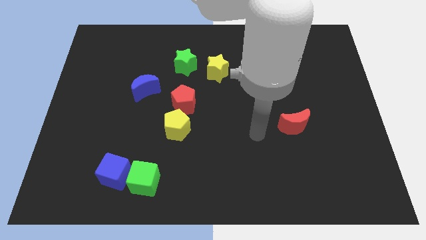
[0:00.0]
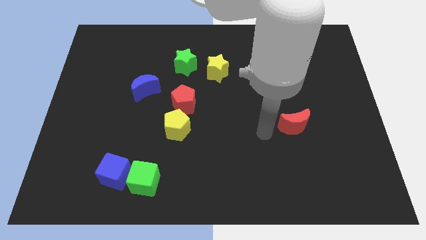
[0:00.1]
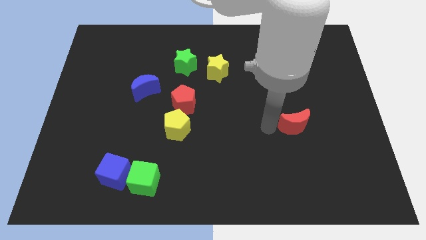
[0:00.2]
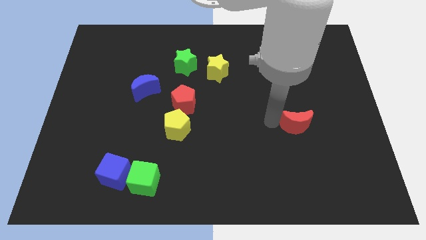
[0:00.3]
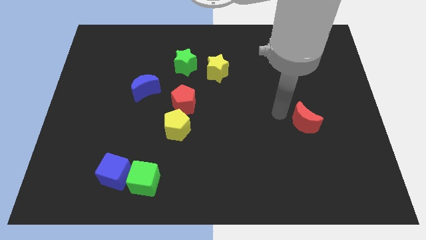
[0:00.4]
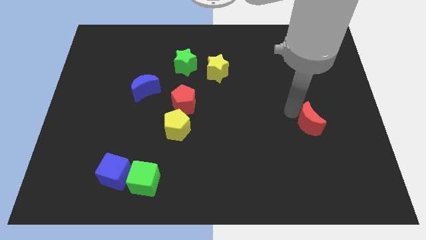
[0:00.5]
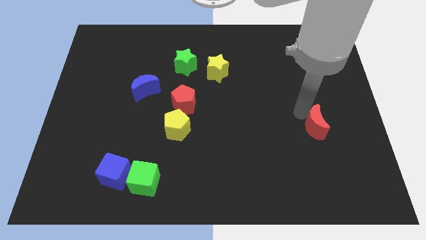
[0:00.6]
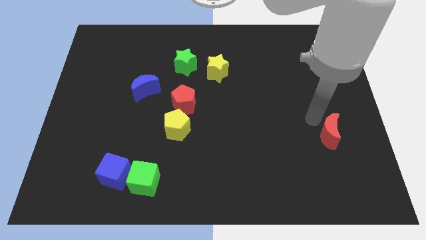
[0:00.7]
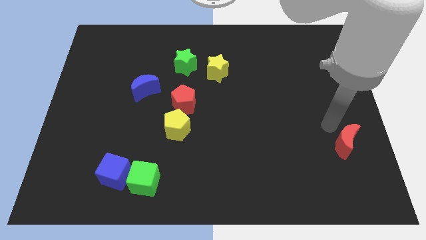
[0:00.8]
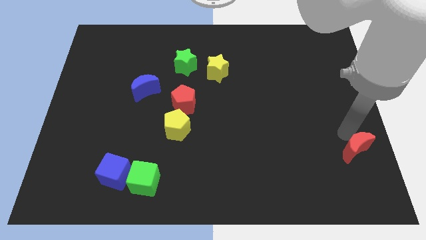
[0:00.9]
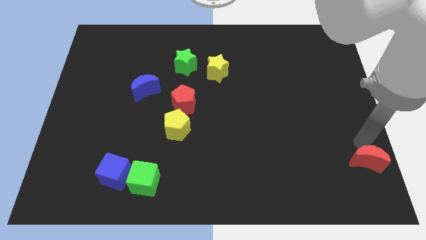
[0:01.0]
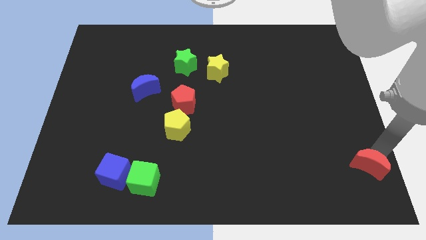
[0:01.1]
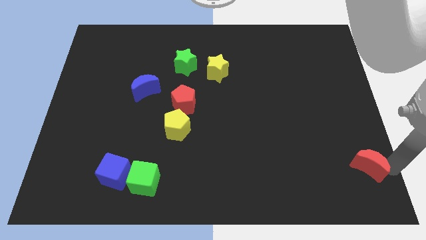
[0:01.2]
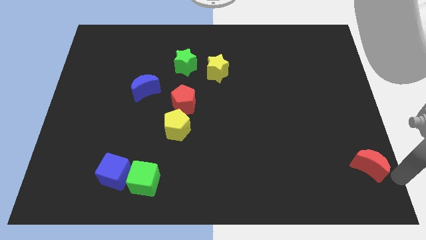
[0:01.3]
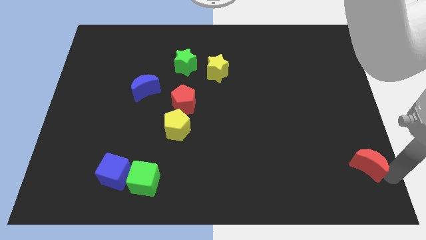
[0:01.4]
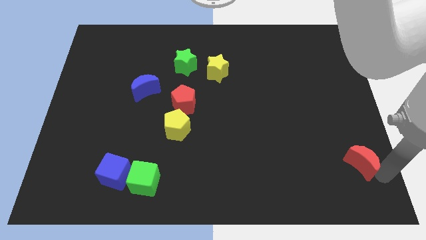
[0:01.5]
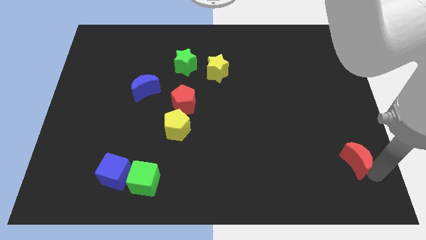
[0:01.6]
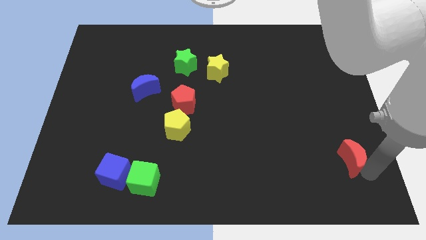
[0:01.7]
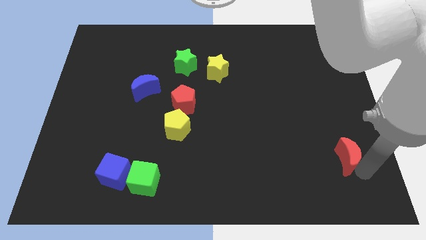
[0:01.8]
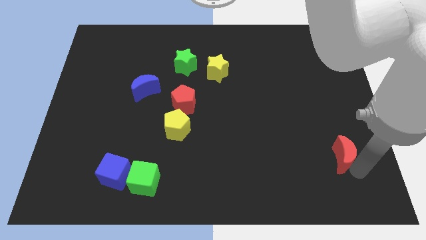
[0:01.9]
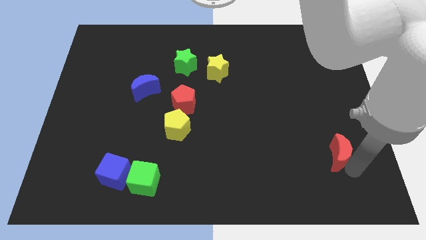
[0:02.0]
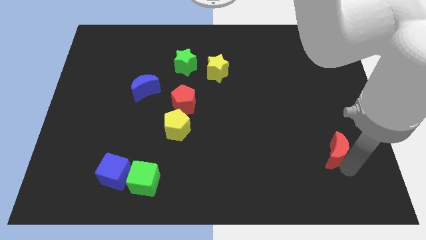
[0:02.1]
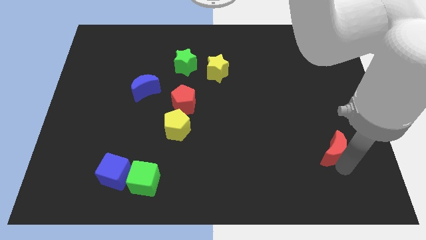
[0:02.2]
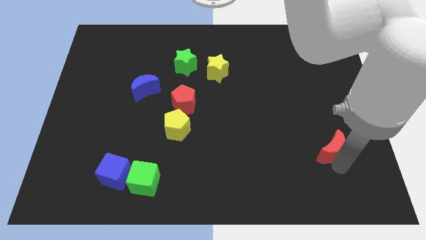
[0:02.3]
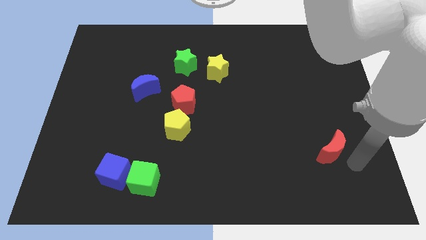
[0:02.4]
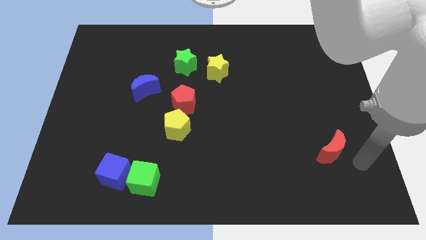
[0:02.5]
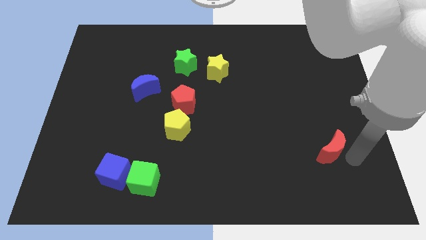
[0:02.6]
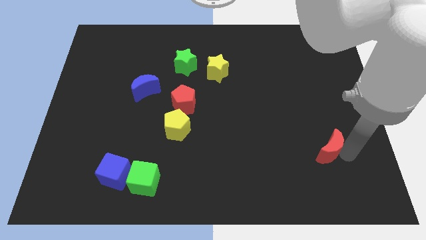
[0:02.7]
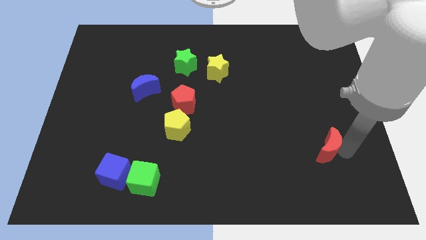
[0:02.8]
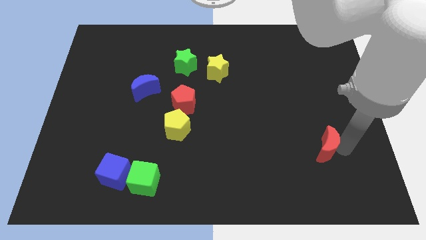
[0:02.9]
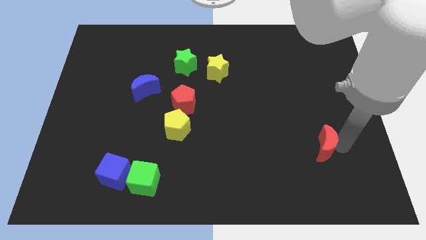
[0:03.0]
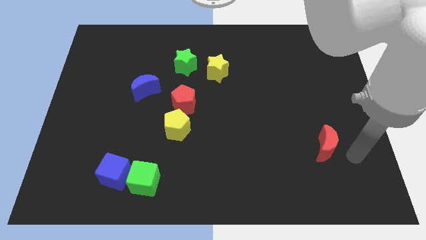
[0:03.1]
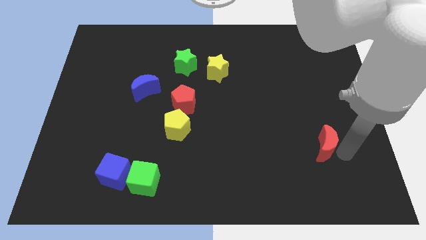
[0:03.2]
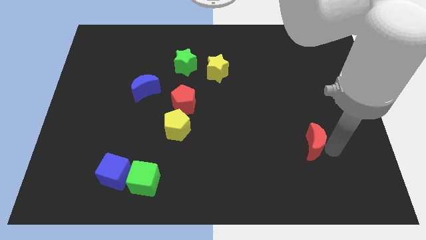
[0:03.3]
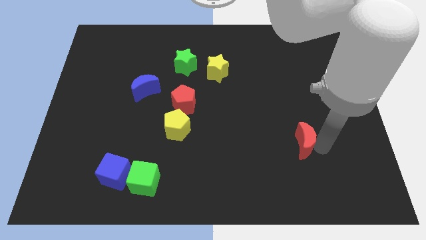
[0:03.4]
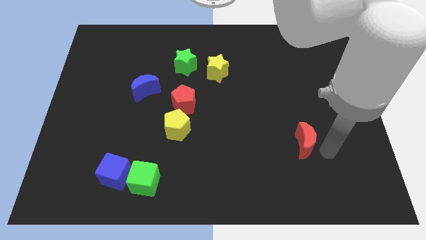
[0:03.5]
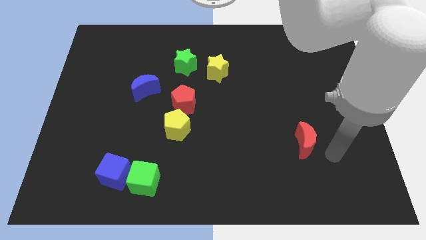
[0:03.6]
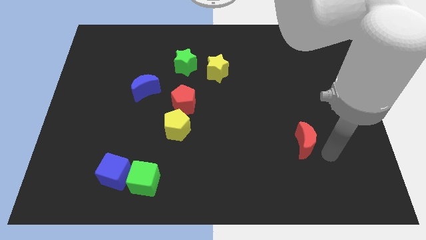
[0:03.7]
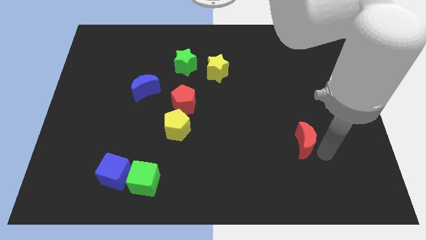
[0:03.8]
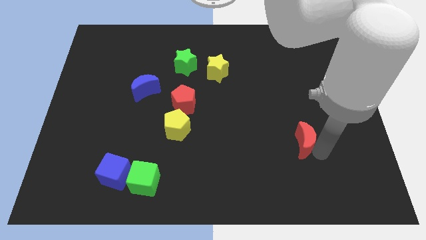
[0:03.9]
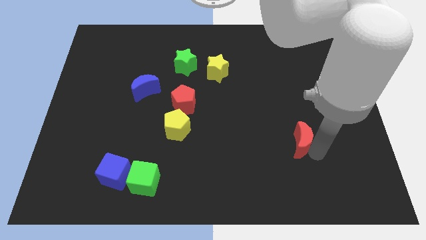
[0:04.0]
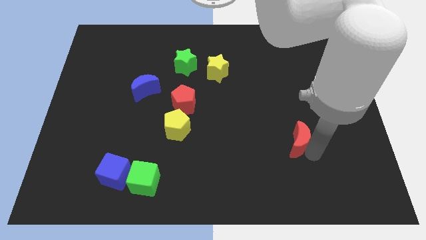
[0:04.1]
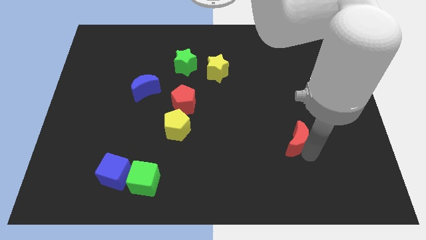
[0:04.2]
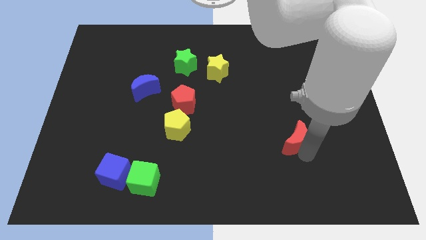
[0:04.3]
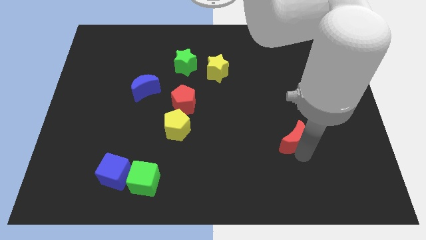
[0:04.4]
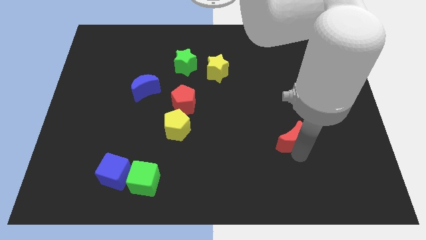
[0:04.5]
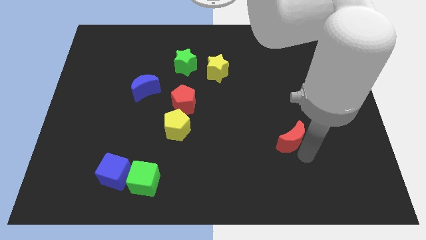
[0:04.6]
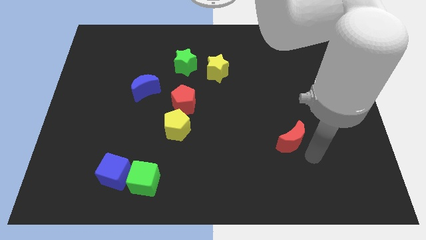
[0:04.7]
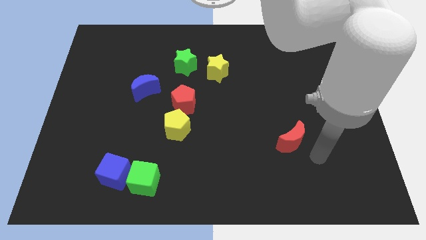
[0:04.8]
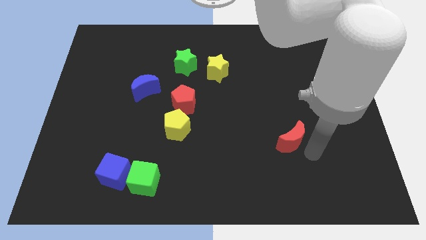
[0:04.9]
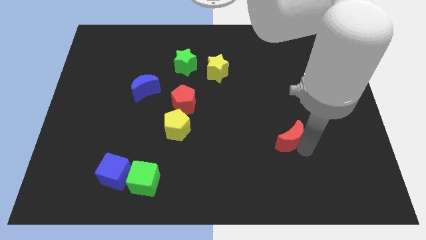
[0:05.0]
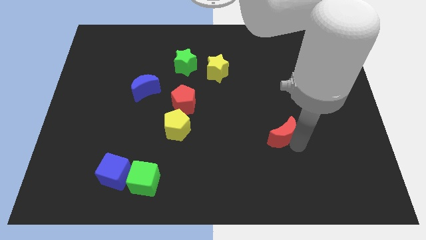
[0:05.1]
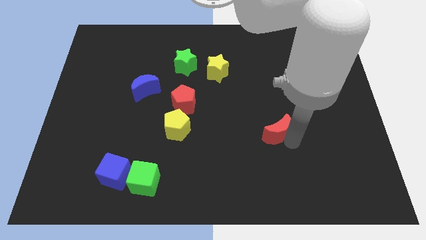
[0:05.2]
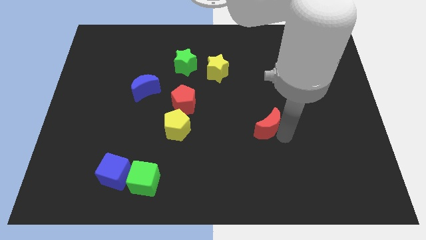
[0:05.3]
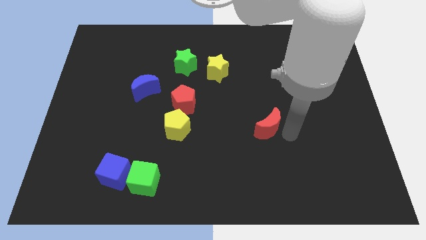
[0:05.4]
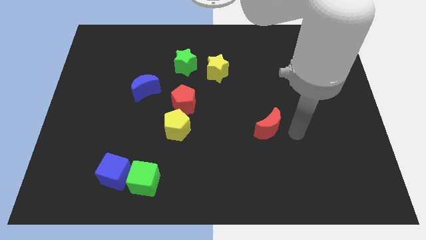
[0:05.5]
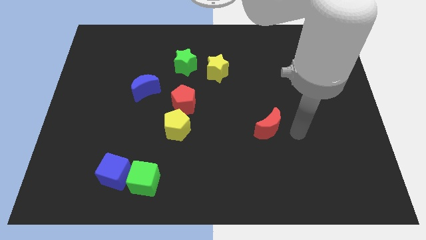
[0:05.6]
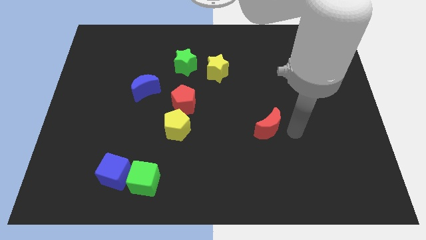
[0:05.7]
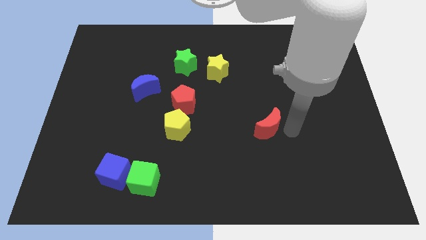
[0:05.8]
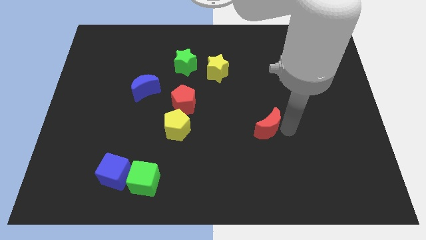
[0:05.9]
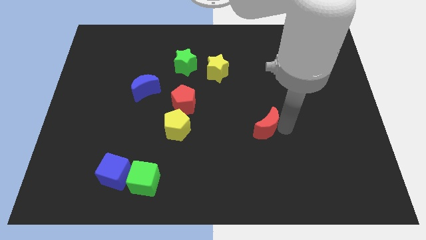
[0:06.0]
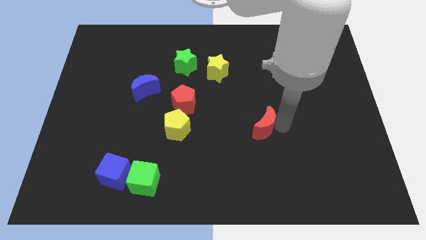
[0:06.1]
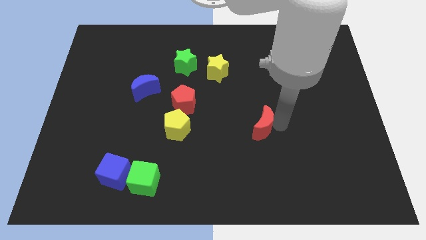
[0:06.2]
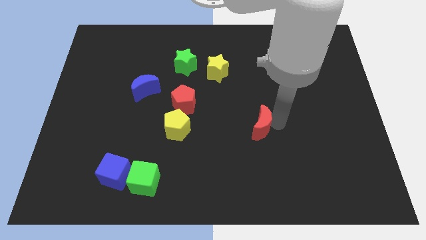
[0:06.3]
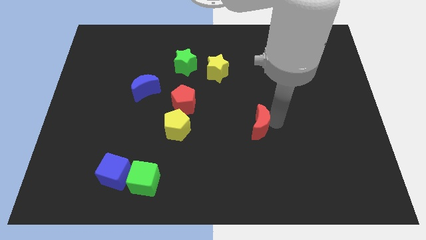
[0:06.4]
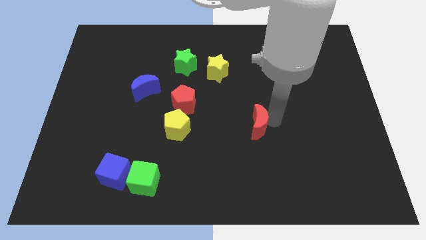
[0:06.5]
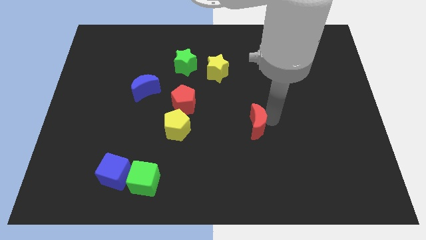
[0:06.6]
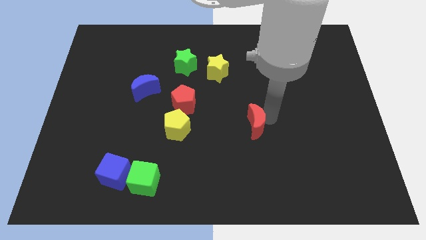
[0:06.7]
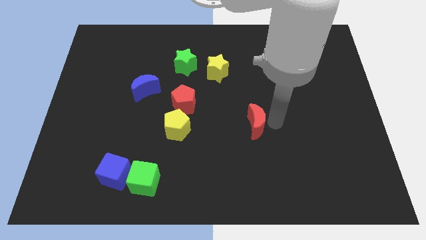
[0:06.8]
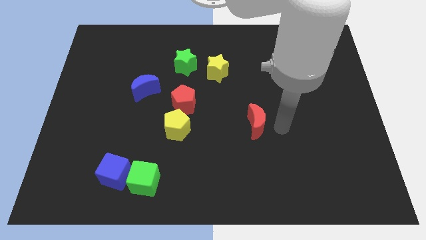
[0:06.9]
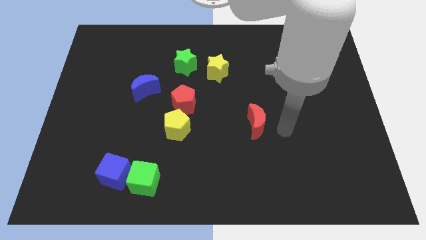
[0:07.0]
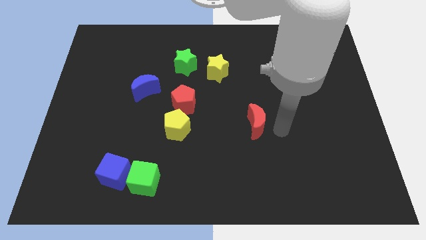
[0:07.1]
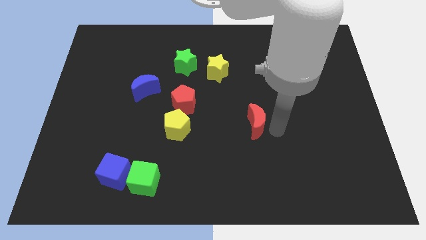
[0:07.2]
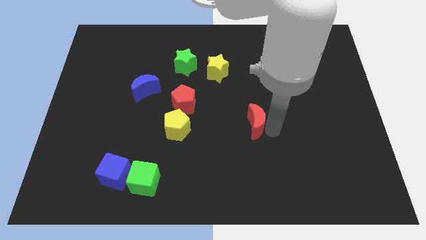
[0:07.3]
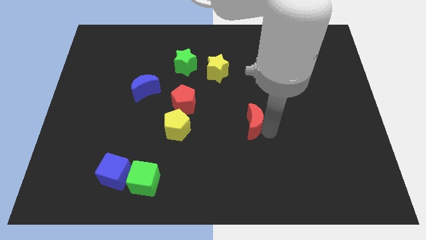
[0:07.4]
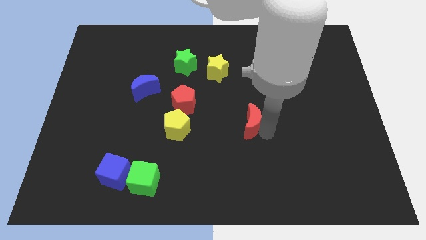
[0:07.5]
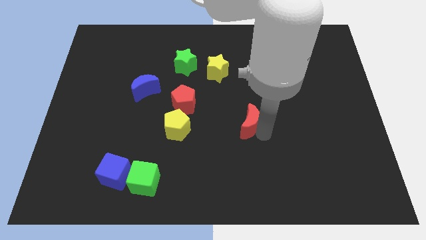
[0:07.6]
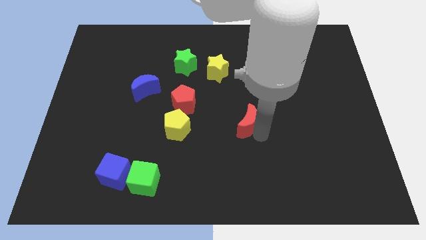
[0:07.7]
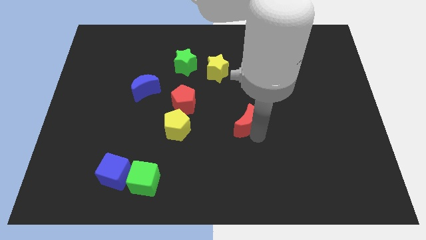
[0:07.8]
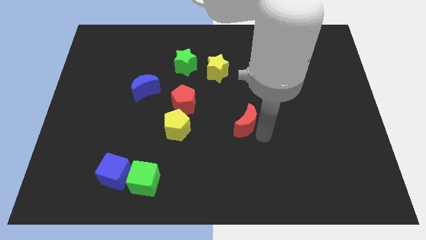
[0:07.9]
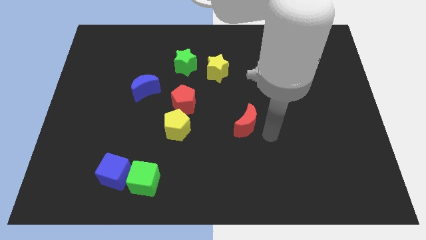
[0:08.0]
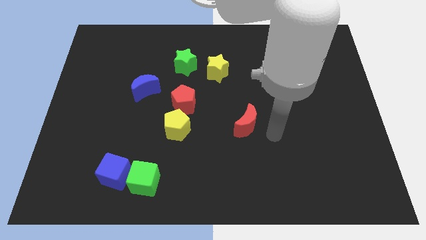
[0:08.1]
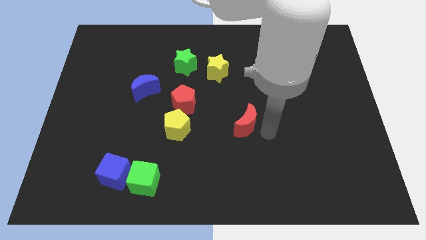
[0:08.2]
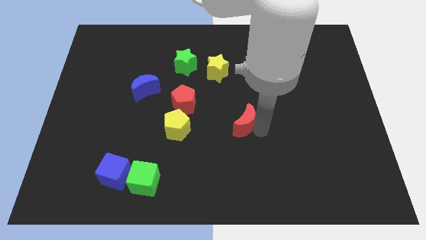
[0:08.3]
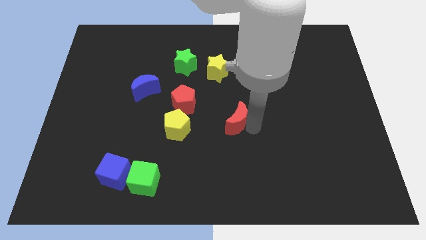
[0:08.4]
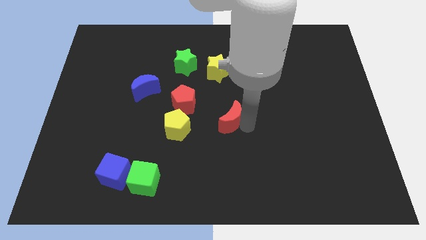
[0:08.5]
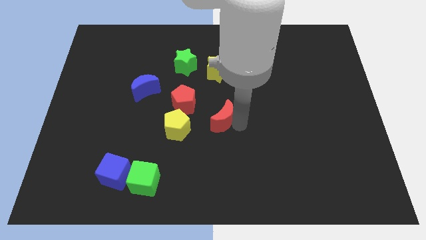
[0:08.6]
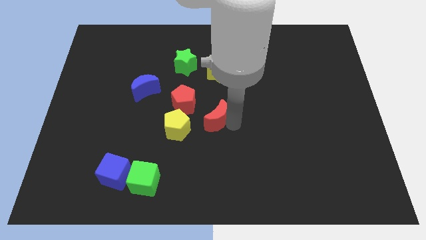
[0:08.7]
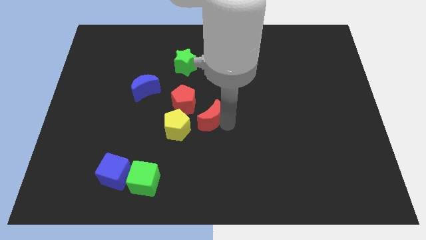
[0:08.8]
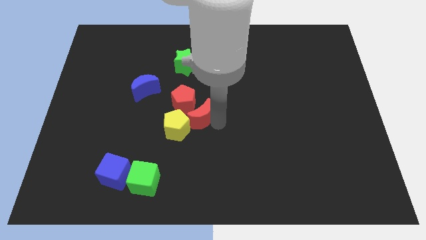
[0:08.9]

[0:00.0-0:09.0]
put the red moon towards the red pentagon
